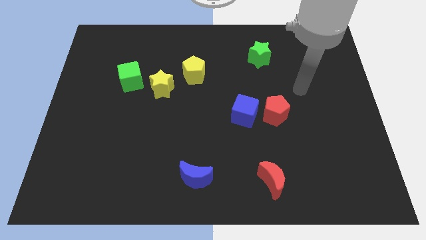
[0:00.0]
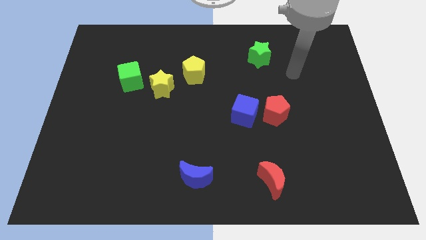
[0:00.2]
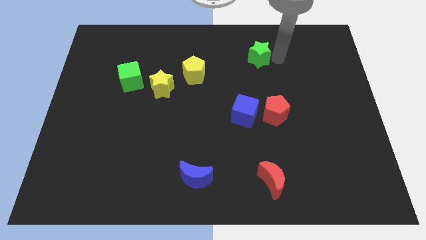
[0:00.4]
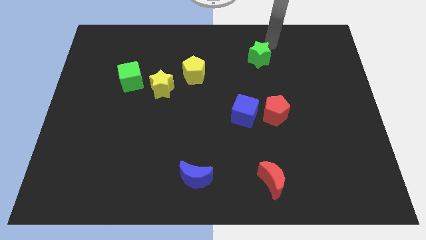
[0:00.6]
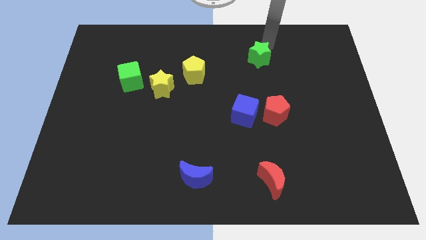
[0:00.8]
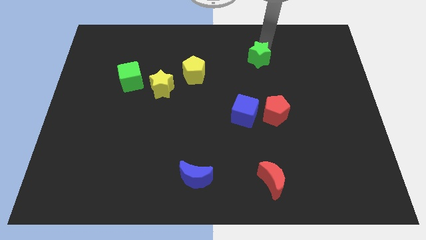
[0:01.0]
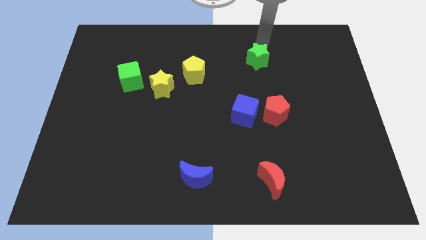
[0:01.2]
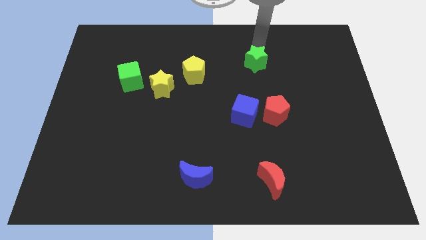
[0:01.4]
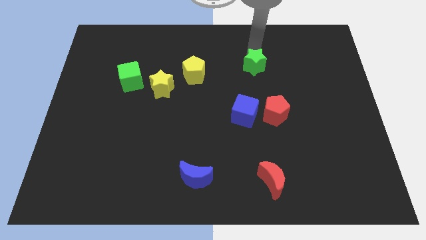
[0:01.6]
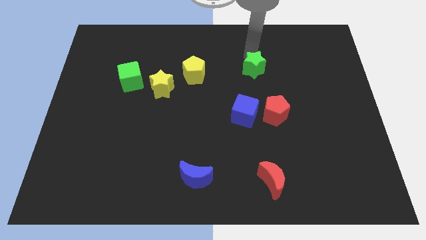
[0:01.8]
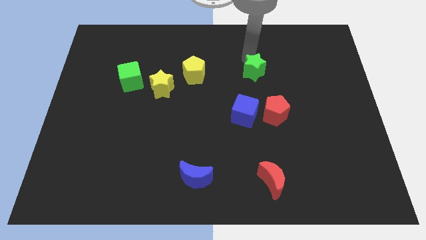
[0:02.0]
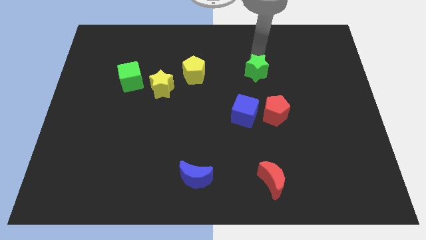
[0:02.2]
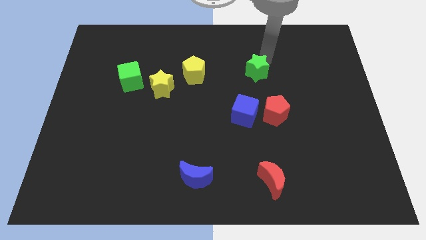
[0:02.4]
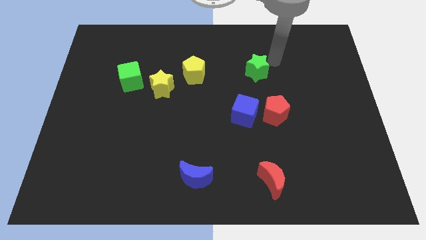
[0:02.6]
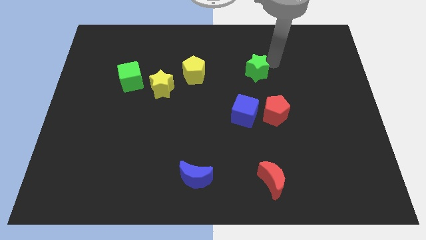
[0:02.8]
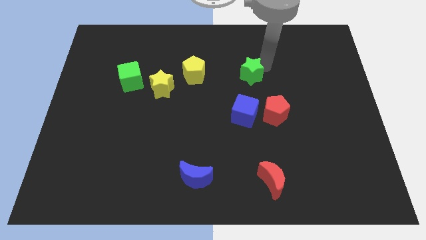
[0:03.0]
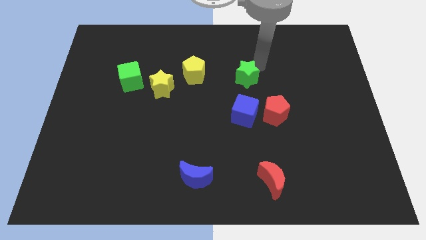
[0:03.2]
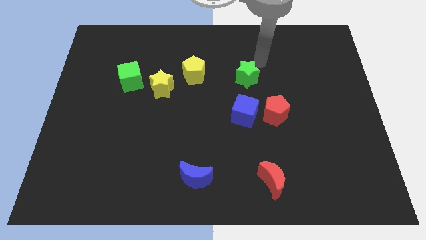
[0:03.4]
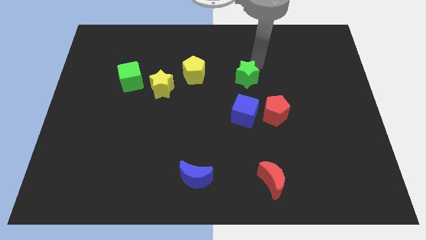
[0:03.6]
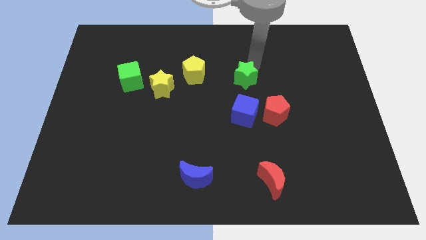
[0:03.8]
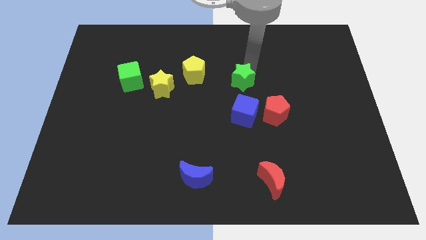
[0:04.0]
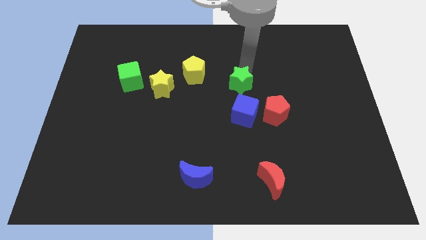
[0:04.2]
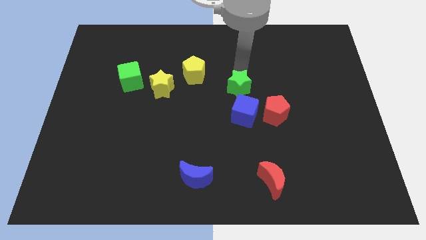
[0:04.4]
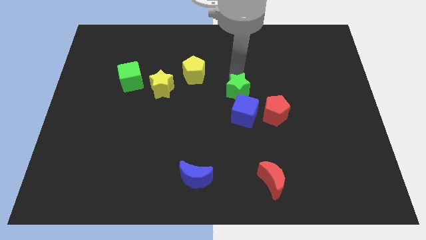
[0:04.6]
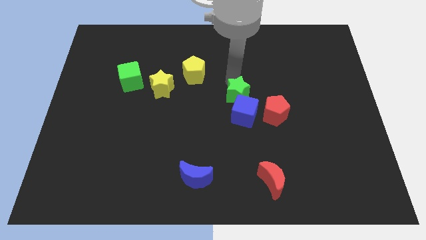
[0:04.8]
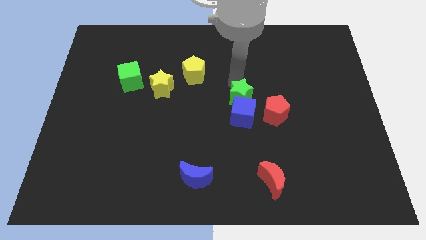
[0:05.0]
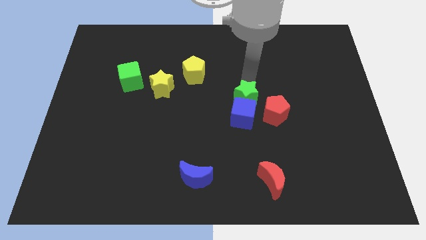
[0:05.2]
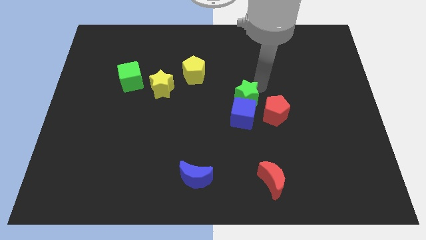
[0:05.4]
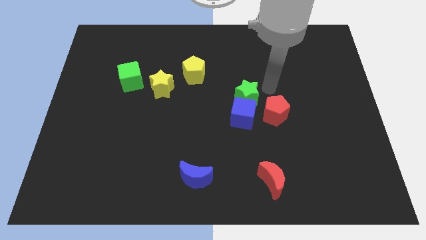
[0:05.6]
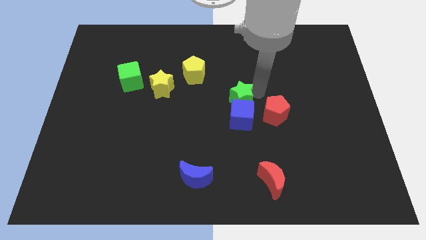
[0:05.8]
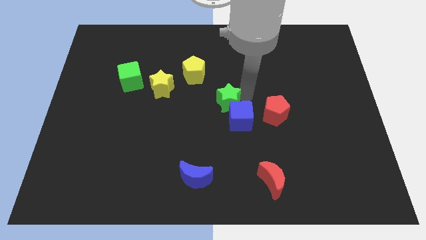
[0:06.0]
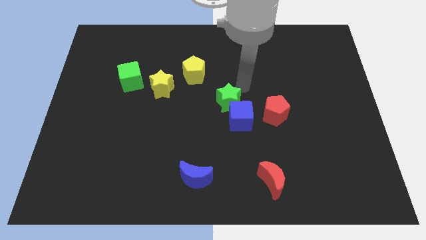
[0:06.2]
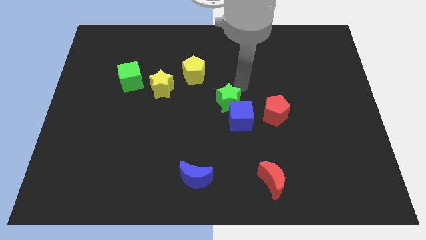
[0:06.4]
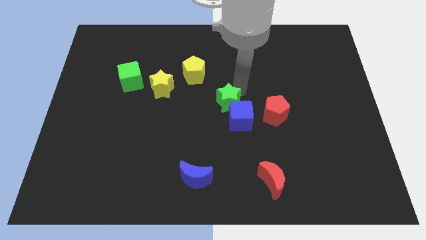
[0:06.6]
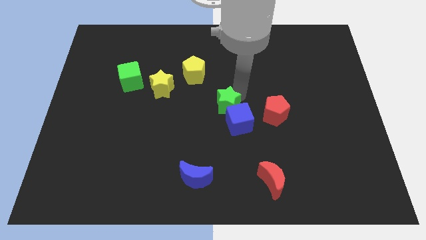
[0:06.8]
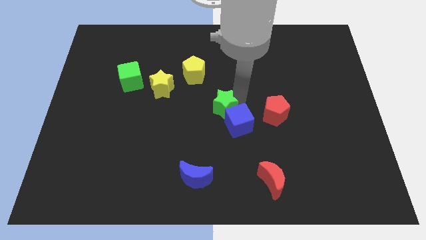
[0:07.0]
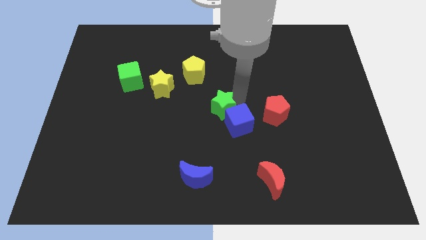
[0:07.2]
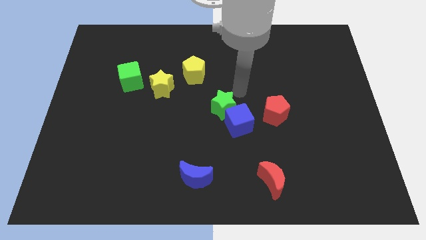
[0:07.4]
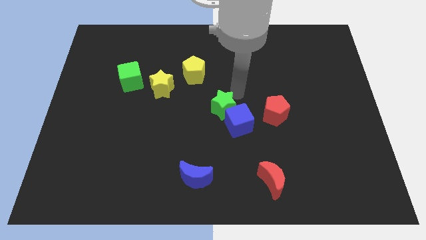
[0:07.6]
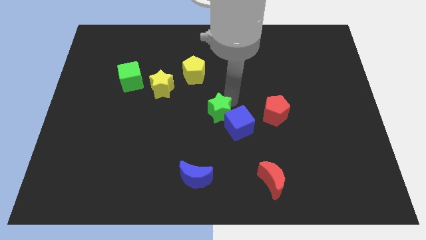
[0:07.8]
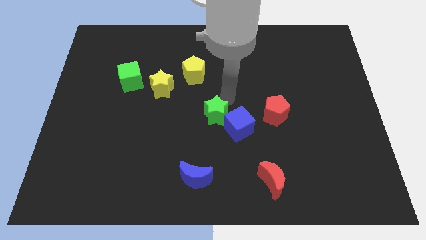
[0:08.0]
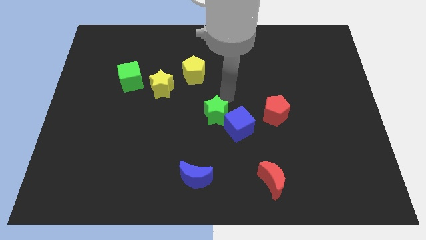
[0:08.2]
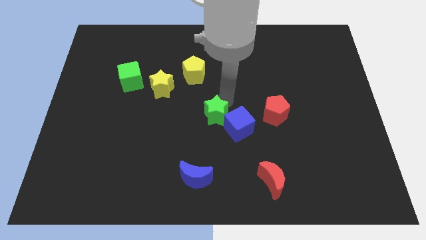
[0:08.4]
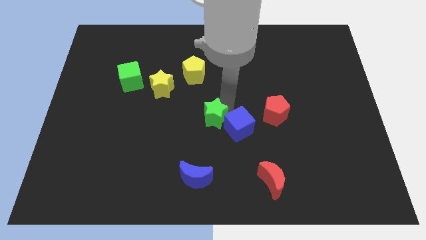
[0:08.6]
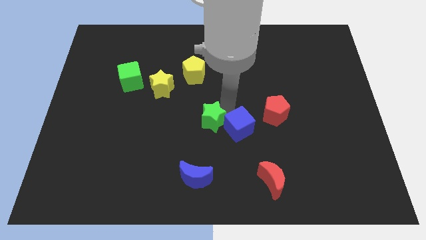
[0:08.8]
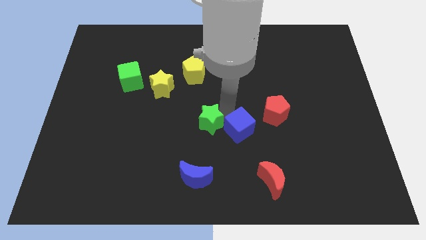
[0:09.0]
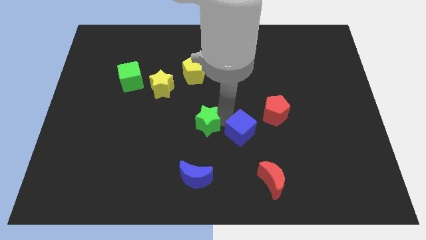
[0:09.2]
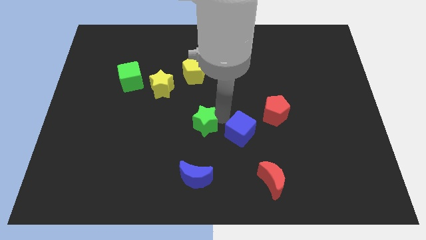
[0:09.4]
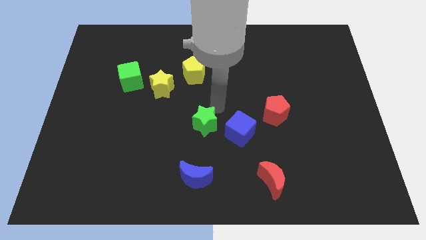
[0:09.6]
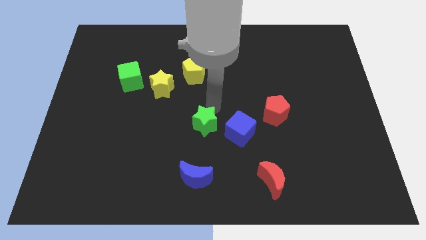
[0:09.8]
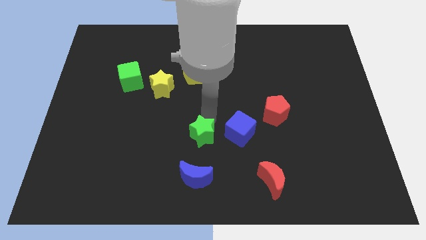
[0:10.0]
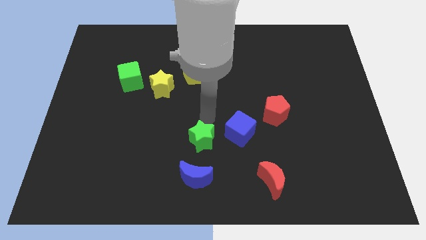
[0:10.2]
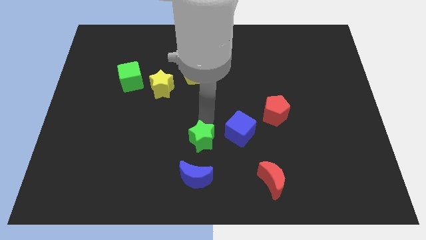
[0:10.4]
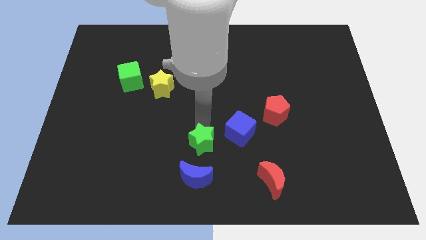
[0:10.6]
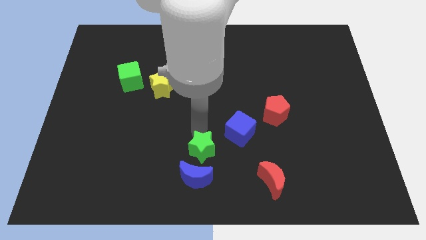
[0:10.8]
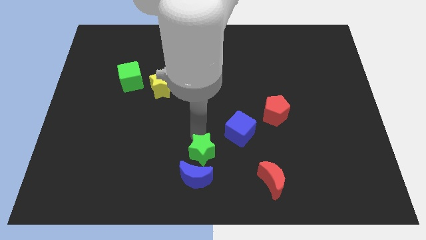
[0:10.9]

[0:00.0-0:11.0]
put the green star towards the blue moon

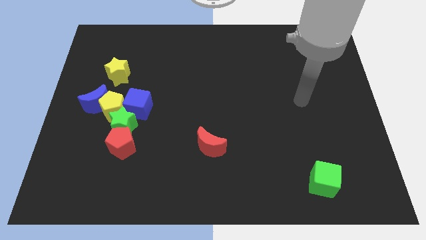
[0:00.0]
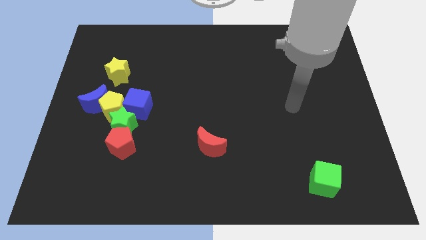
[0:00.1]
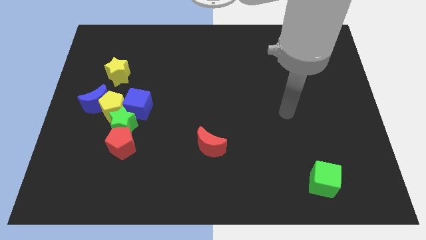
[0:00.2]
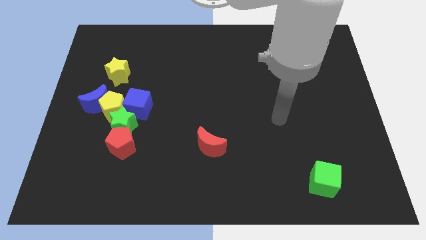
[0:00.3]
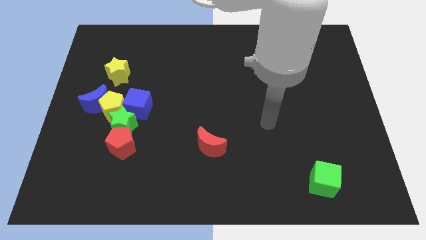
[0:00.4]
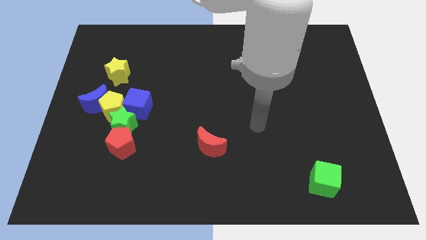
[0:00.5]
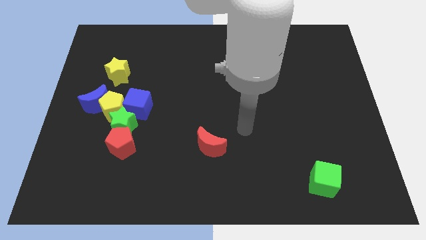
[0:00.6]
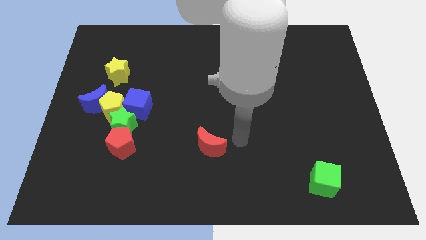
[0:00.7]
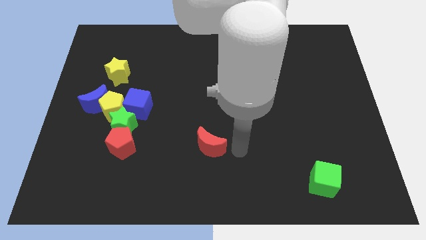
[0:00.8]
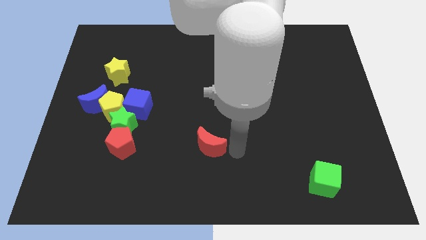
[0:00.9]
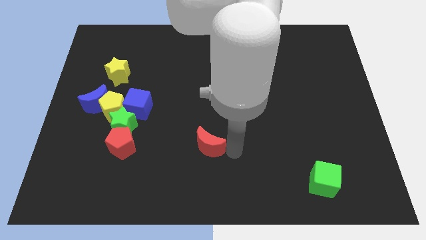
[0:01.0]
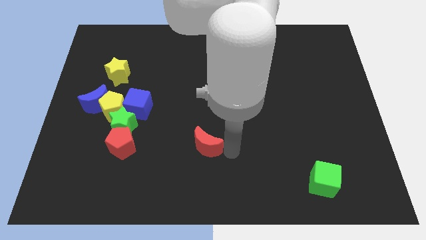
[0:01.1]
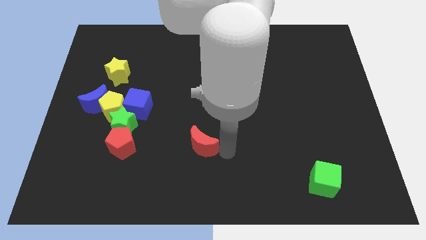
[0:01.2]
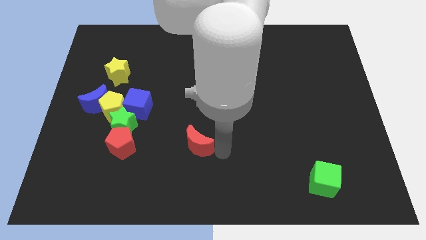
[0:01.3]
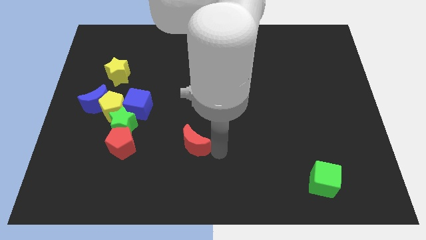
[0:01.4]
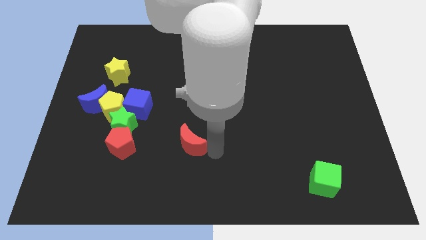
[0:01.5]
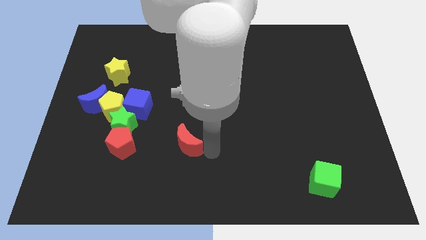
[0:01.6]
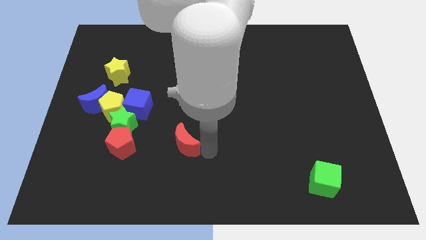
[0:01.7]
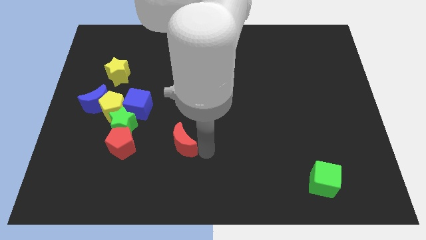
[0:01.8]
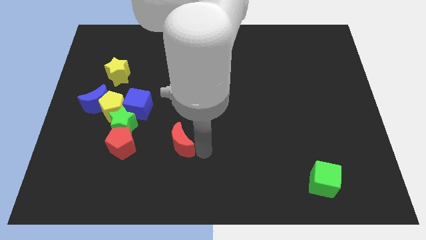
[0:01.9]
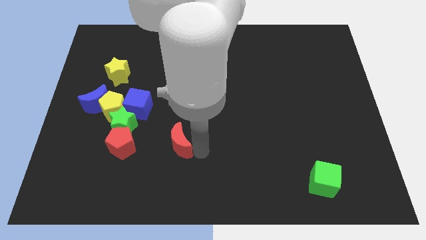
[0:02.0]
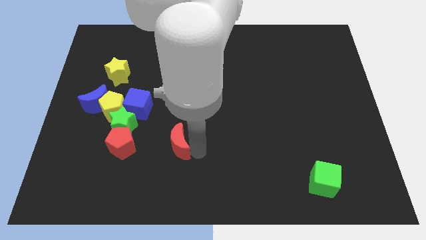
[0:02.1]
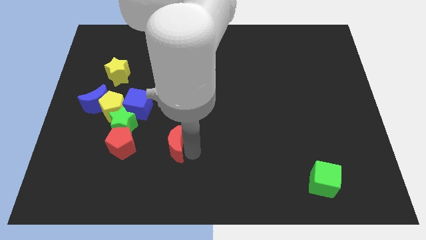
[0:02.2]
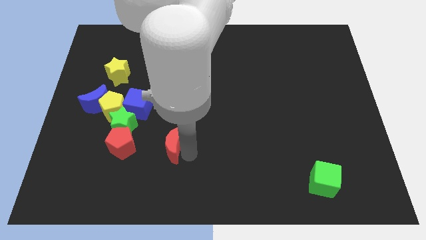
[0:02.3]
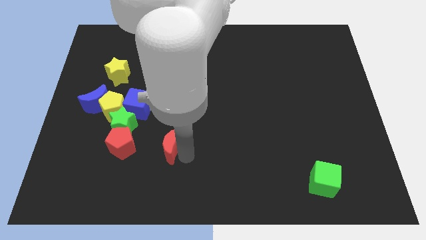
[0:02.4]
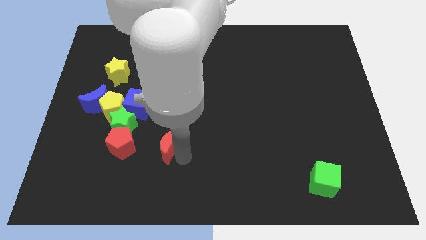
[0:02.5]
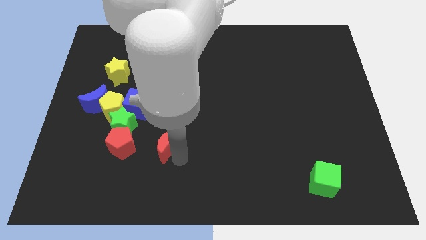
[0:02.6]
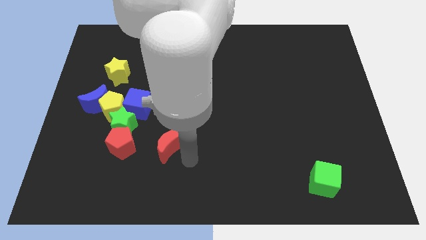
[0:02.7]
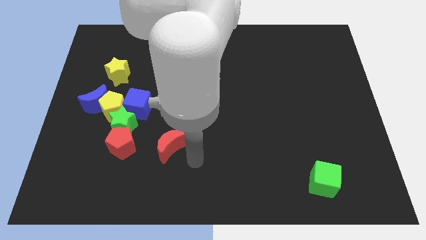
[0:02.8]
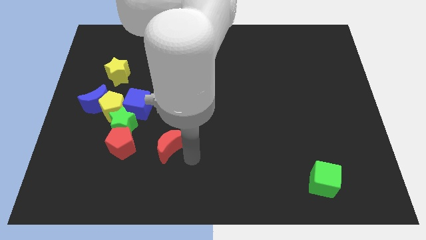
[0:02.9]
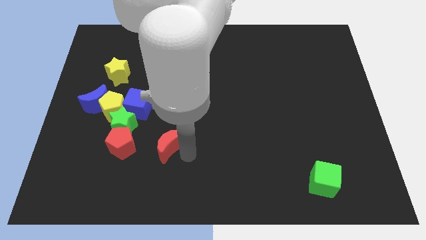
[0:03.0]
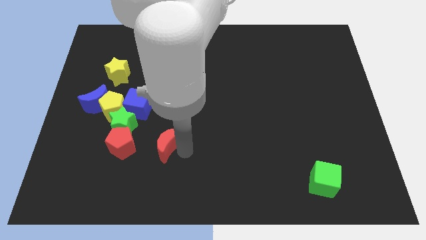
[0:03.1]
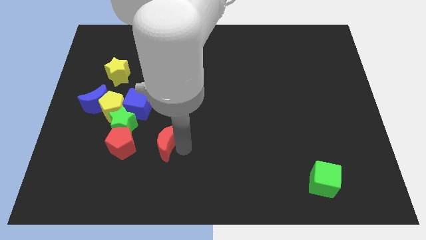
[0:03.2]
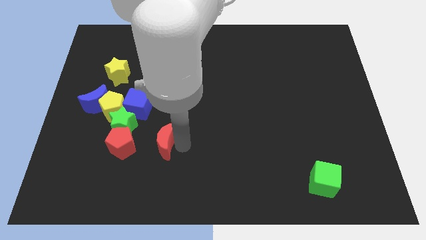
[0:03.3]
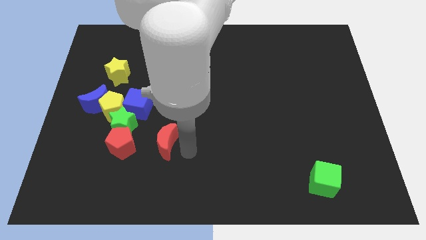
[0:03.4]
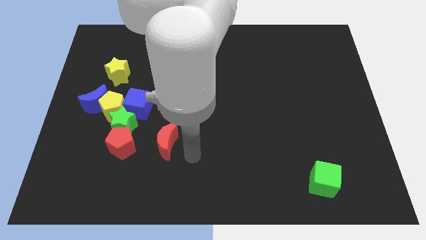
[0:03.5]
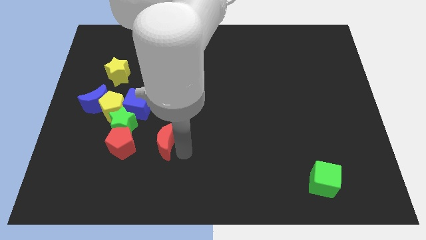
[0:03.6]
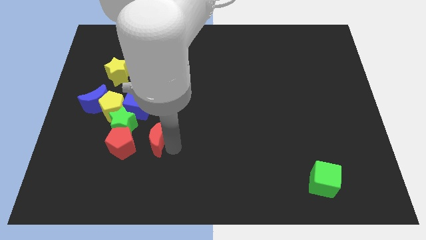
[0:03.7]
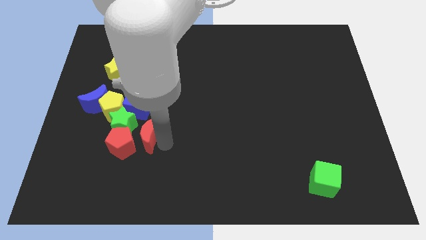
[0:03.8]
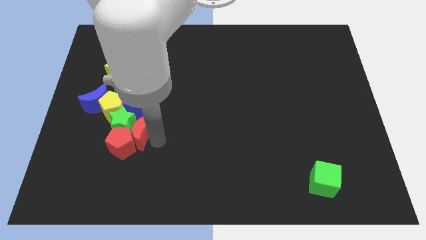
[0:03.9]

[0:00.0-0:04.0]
move the red moon towards the green star
